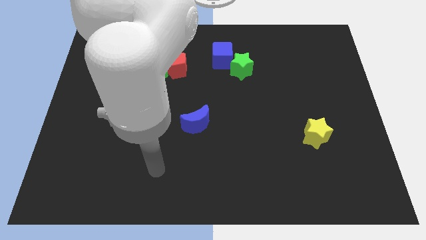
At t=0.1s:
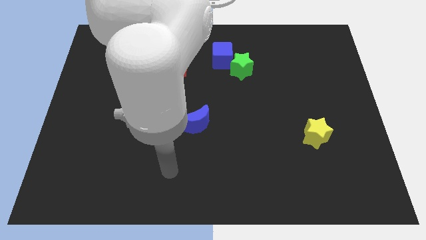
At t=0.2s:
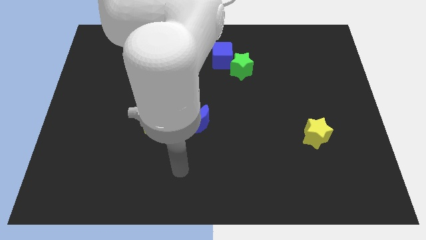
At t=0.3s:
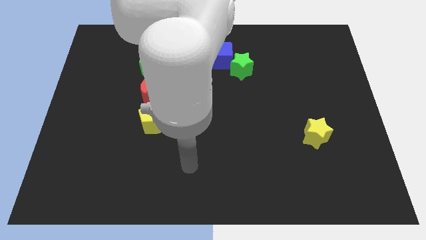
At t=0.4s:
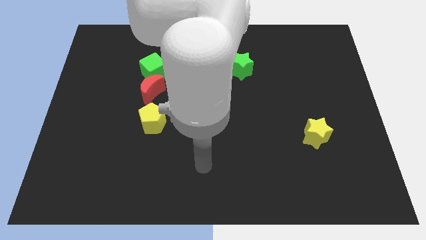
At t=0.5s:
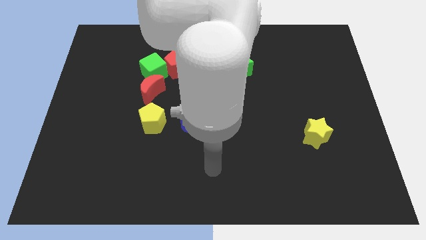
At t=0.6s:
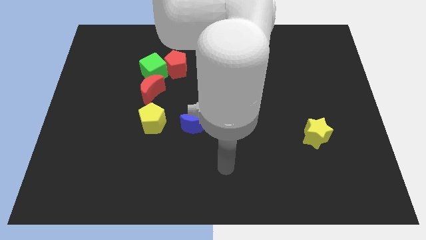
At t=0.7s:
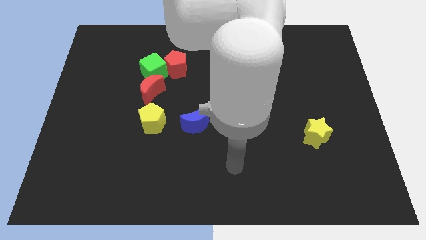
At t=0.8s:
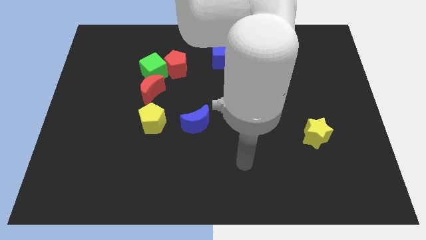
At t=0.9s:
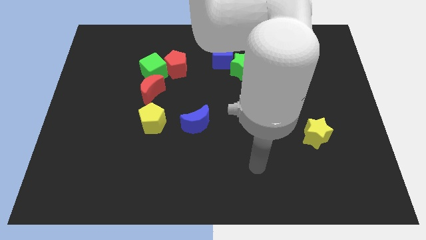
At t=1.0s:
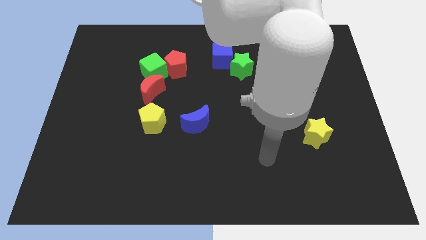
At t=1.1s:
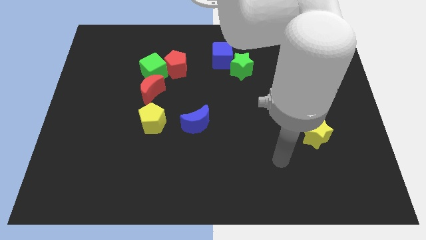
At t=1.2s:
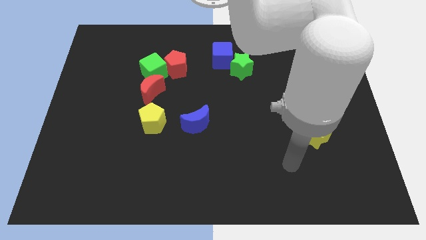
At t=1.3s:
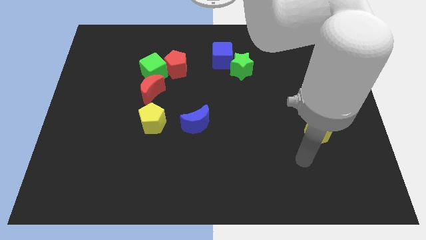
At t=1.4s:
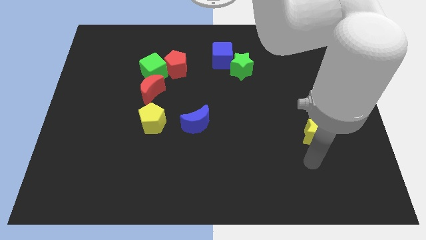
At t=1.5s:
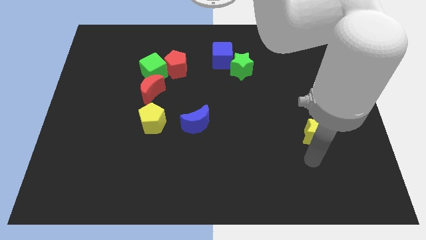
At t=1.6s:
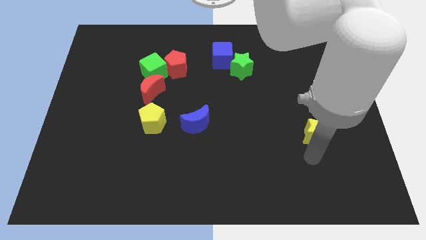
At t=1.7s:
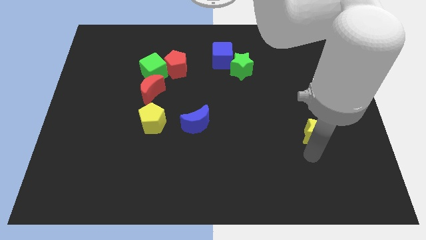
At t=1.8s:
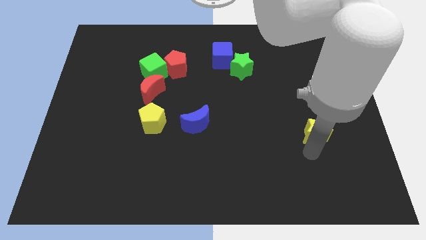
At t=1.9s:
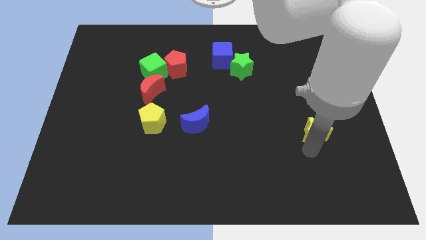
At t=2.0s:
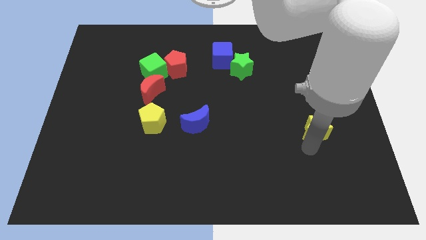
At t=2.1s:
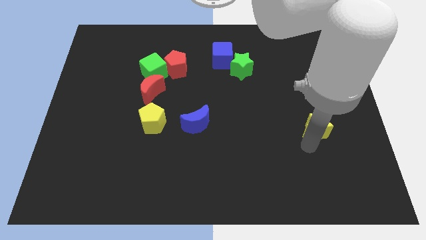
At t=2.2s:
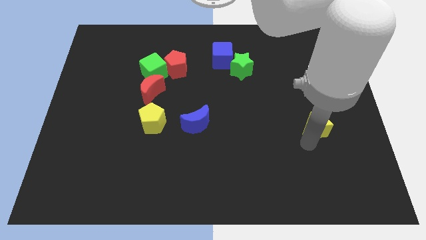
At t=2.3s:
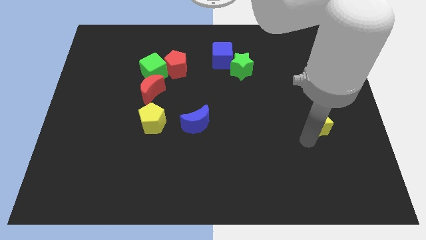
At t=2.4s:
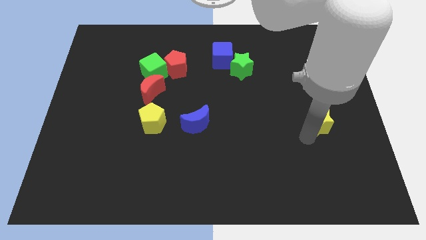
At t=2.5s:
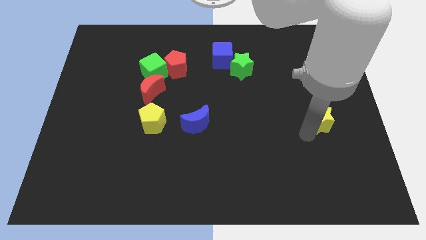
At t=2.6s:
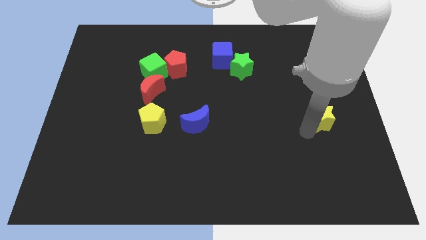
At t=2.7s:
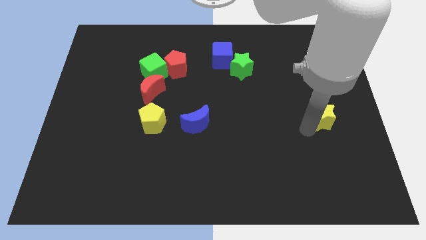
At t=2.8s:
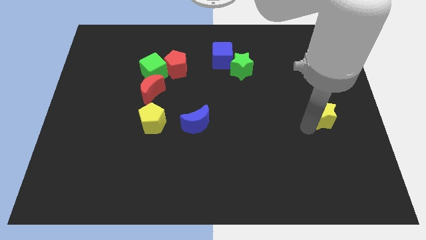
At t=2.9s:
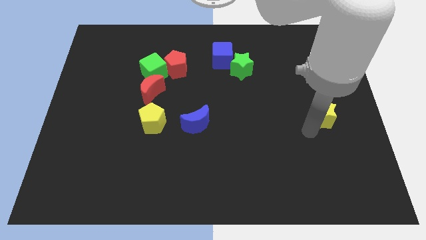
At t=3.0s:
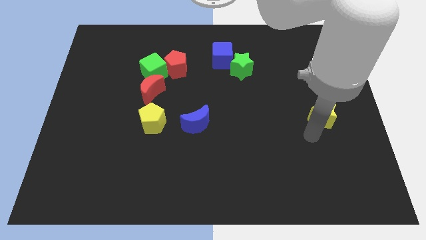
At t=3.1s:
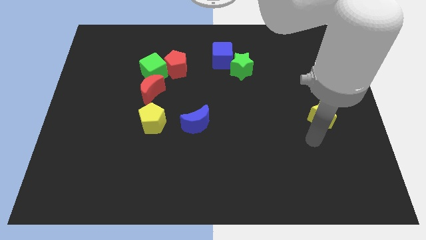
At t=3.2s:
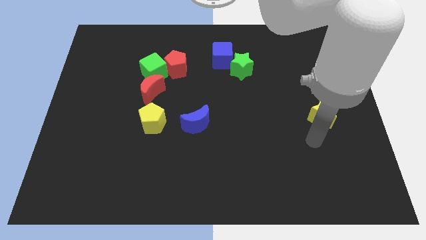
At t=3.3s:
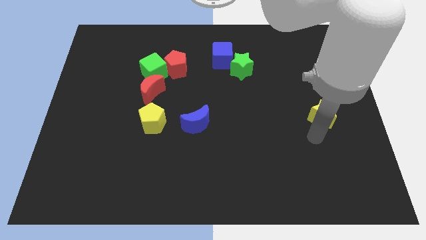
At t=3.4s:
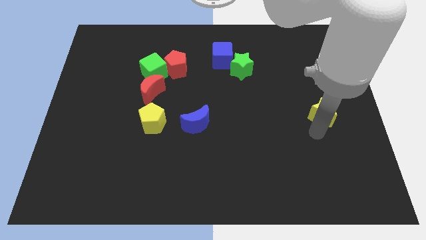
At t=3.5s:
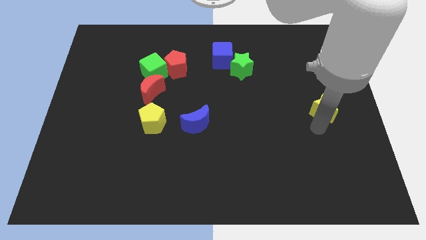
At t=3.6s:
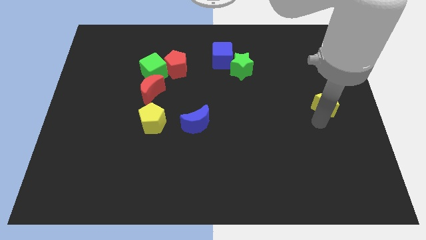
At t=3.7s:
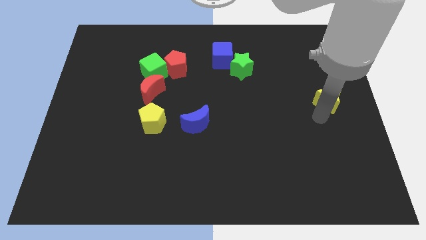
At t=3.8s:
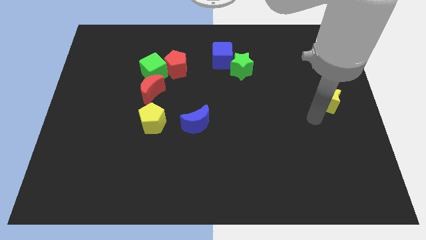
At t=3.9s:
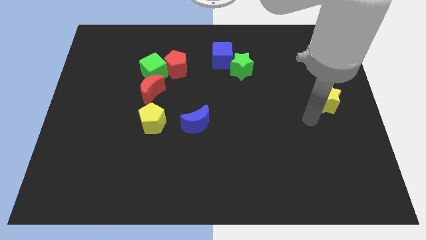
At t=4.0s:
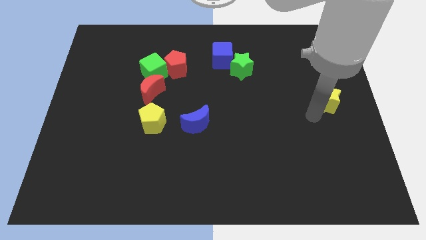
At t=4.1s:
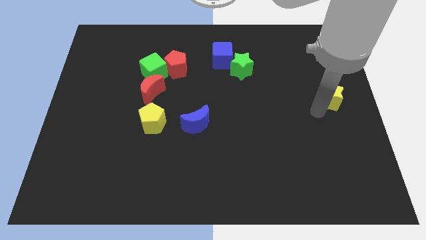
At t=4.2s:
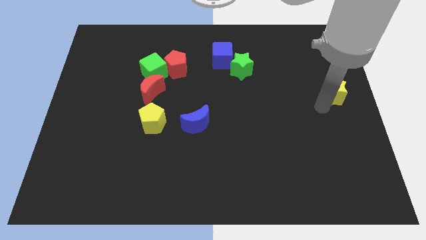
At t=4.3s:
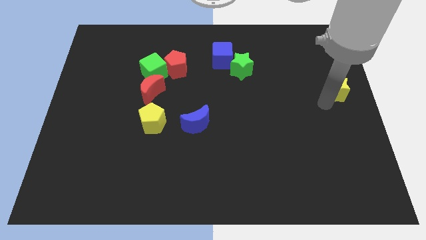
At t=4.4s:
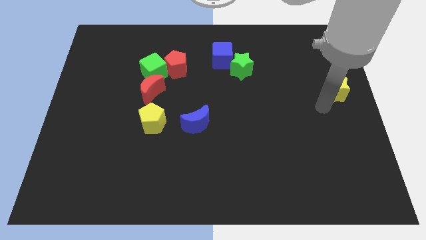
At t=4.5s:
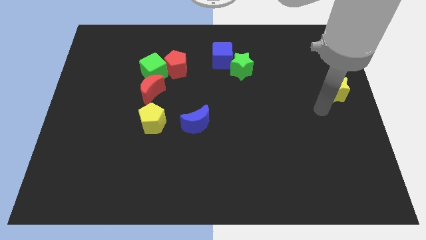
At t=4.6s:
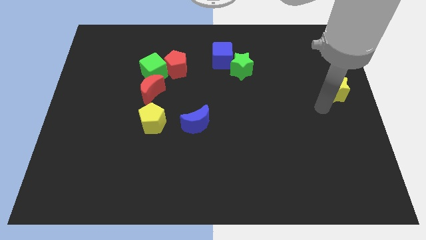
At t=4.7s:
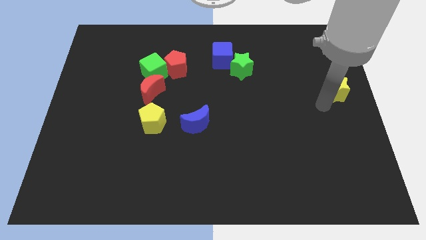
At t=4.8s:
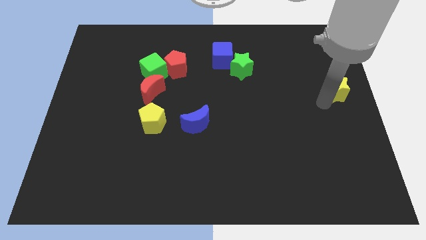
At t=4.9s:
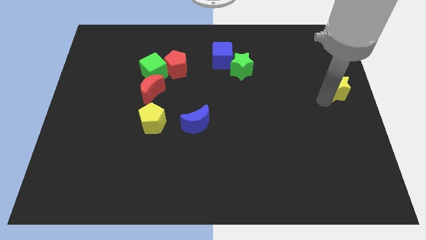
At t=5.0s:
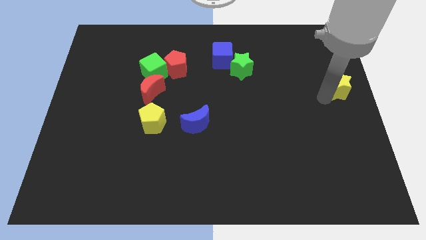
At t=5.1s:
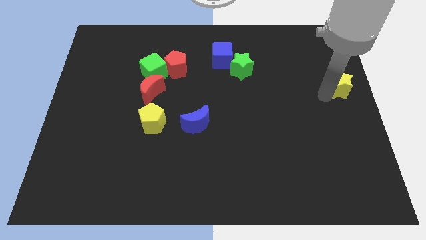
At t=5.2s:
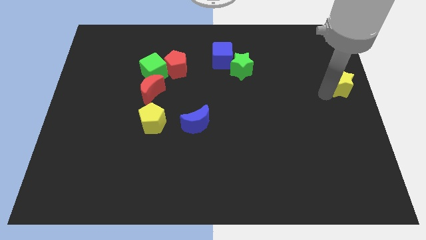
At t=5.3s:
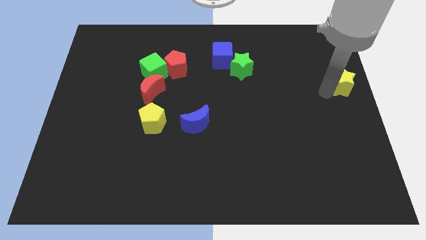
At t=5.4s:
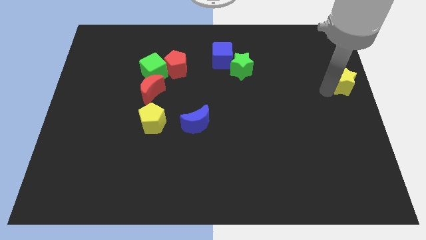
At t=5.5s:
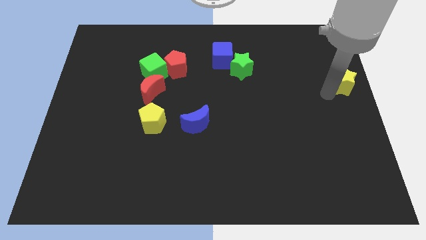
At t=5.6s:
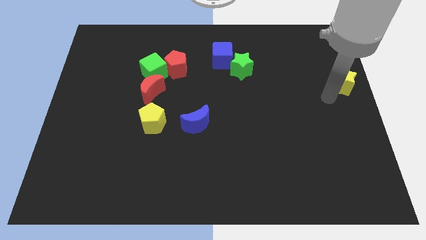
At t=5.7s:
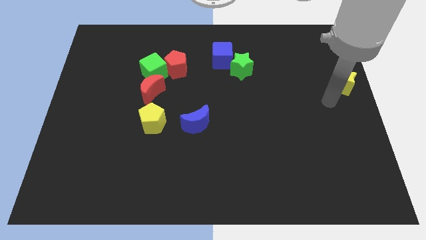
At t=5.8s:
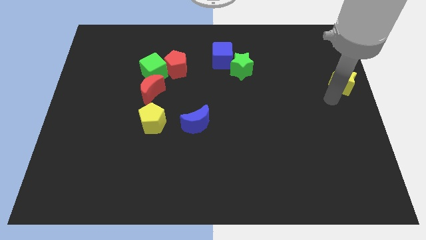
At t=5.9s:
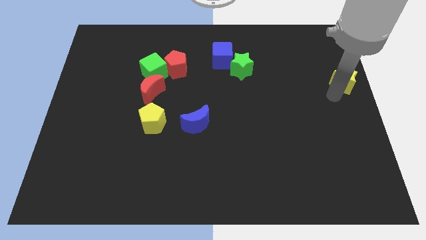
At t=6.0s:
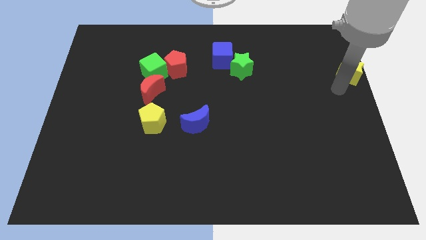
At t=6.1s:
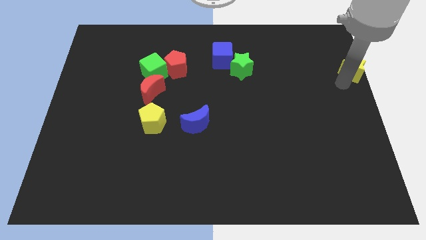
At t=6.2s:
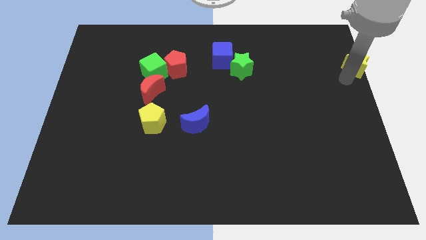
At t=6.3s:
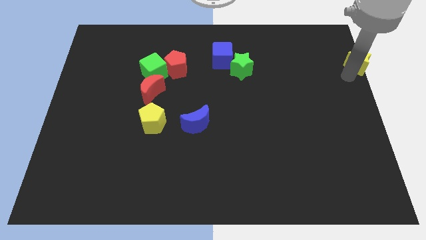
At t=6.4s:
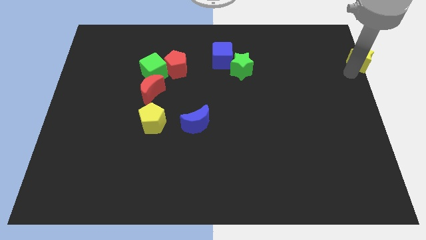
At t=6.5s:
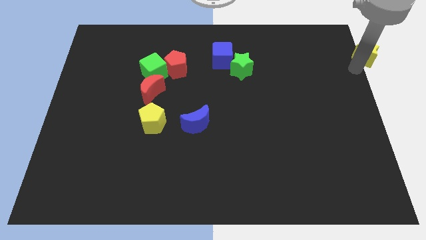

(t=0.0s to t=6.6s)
move the yellow star to the top right corner
